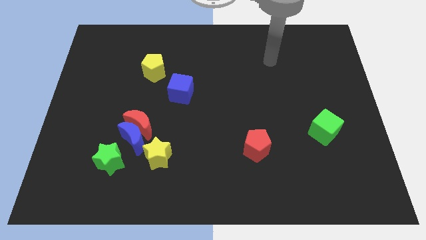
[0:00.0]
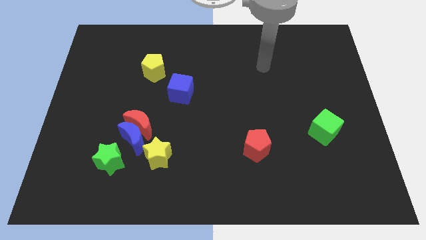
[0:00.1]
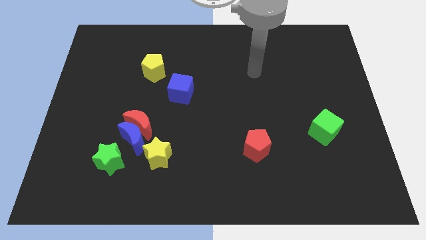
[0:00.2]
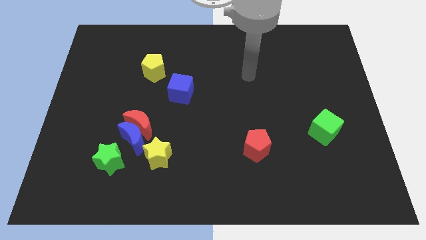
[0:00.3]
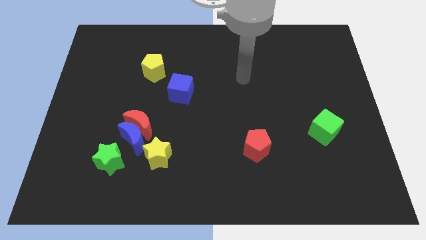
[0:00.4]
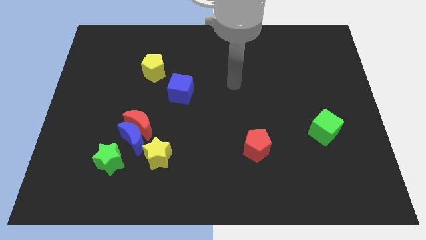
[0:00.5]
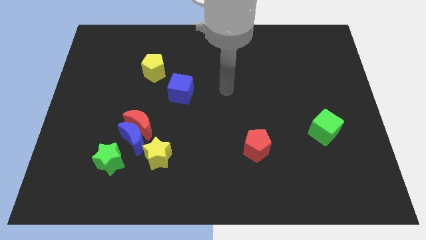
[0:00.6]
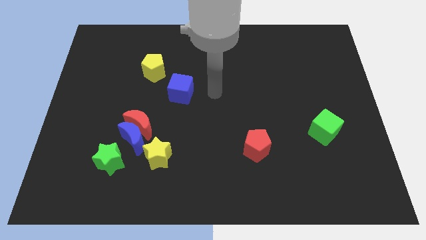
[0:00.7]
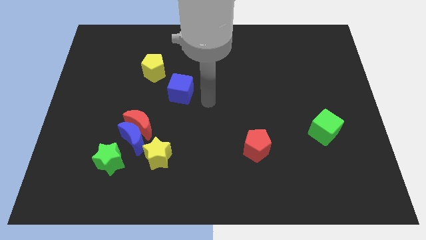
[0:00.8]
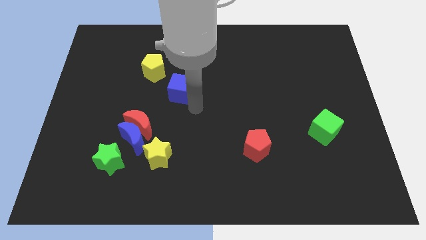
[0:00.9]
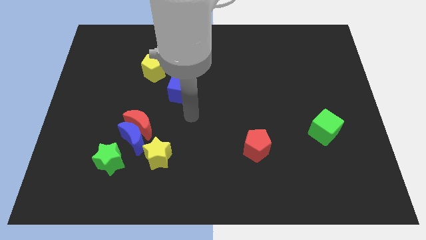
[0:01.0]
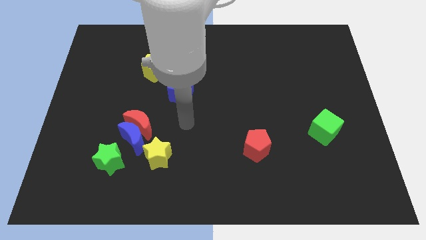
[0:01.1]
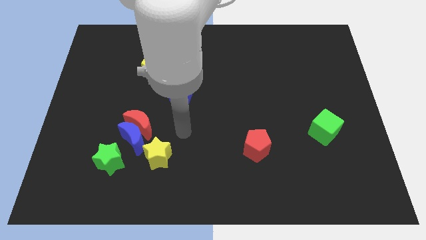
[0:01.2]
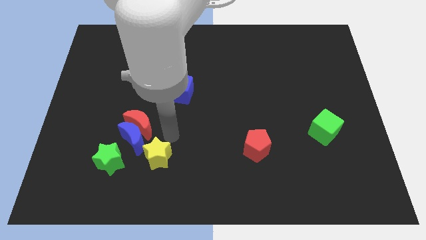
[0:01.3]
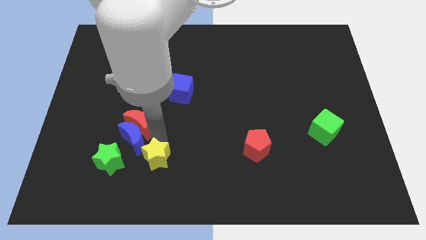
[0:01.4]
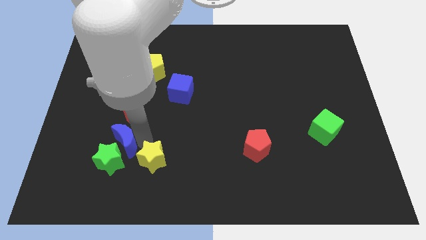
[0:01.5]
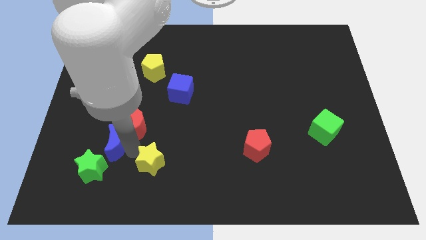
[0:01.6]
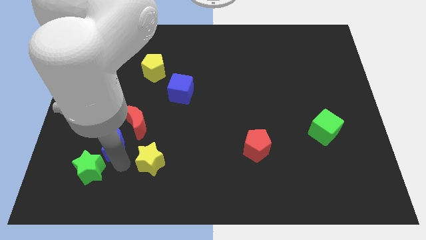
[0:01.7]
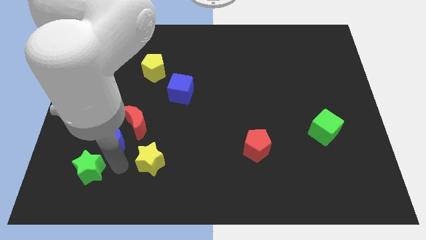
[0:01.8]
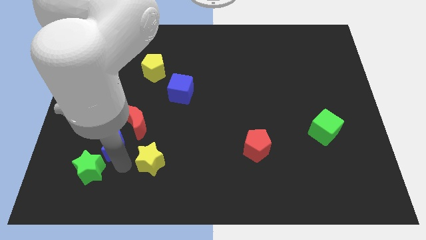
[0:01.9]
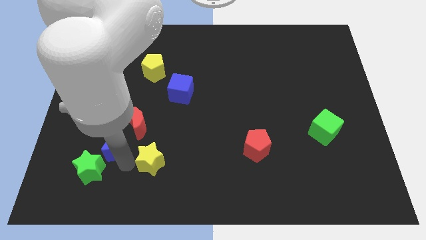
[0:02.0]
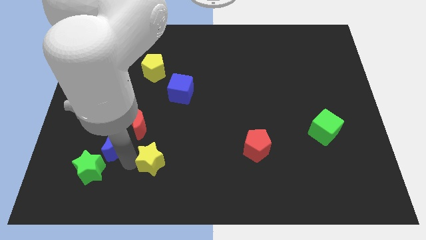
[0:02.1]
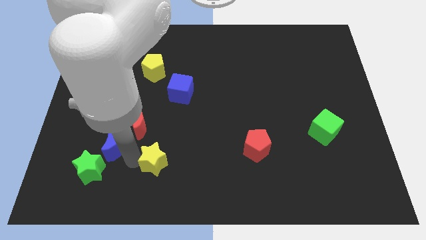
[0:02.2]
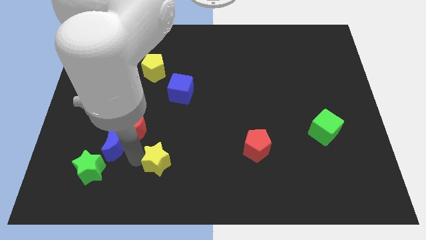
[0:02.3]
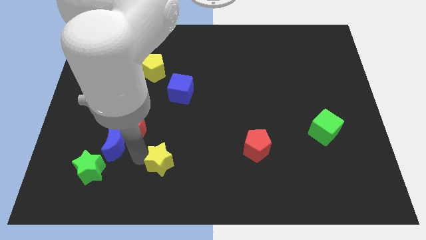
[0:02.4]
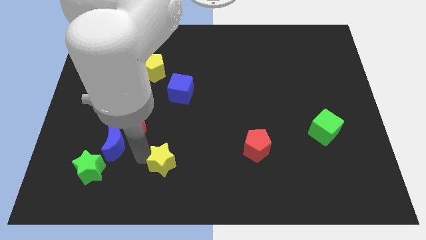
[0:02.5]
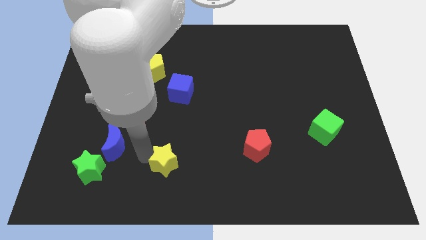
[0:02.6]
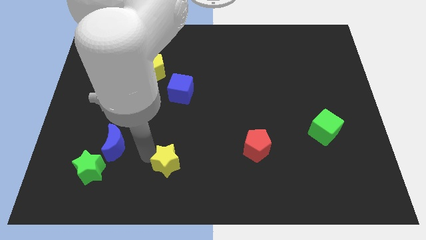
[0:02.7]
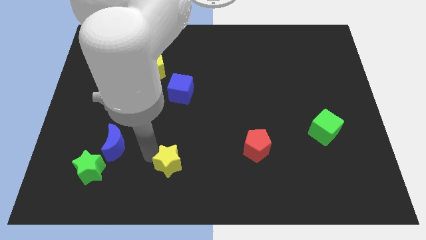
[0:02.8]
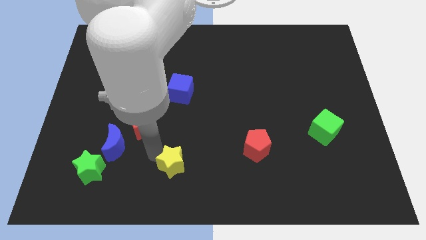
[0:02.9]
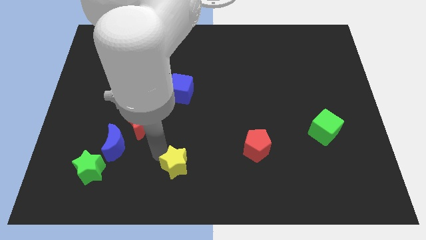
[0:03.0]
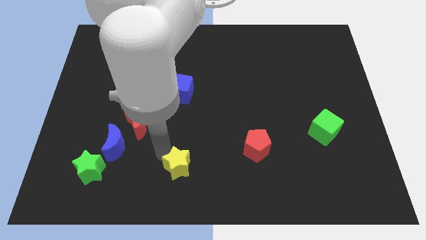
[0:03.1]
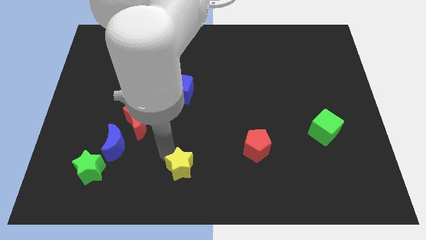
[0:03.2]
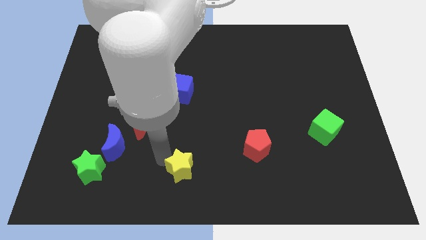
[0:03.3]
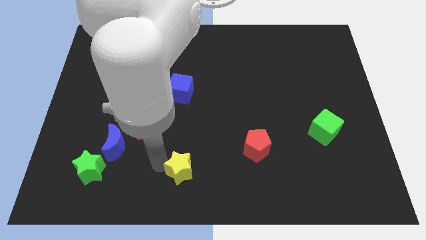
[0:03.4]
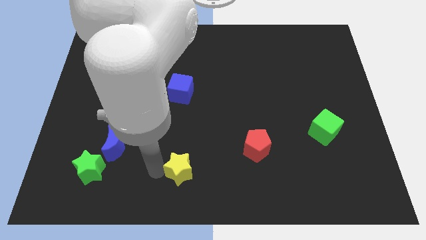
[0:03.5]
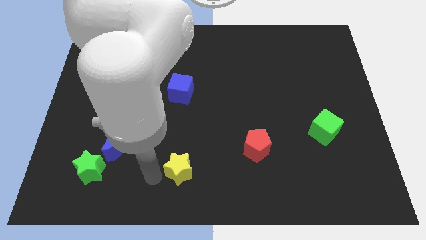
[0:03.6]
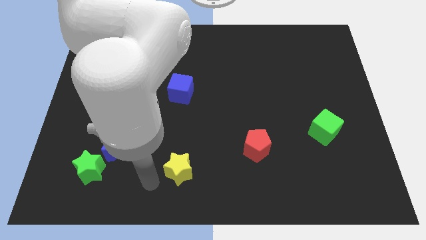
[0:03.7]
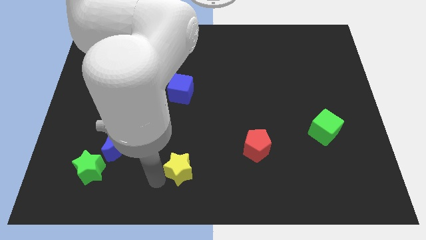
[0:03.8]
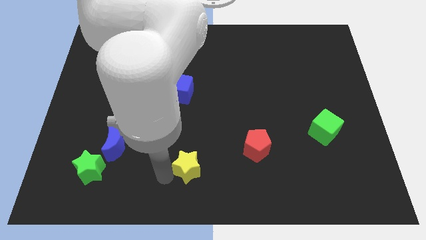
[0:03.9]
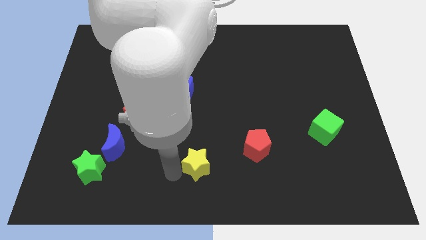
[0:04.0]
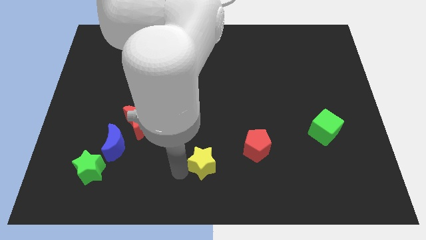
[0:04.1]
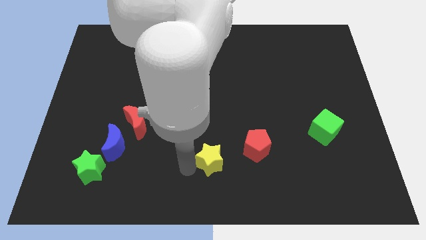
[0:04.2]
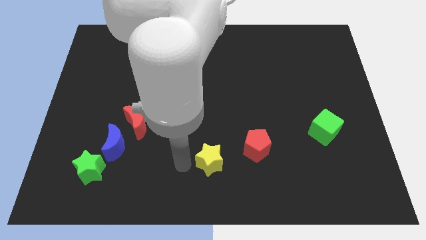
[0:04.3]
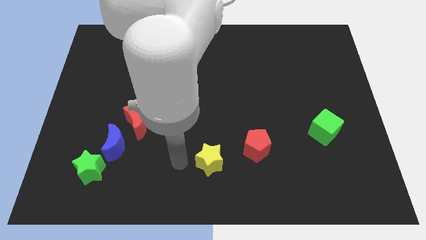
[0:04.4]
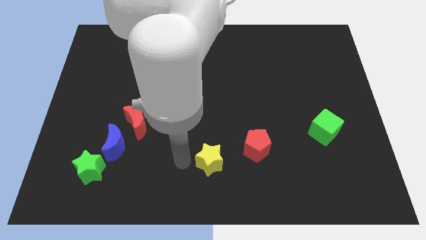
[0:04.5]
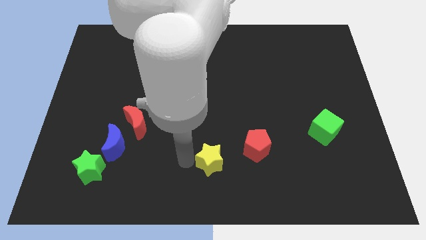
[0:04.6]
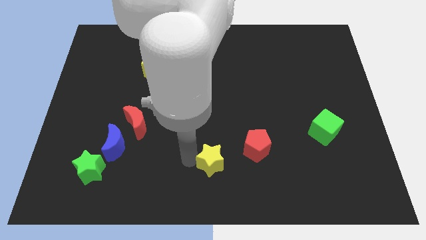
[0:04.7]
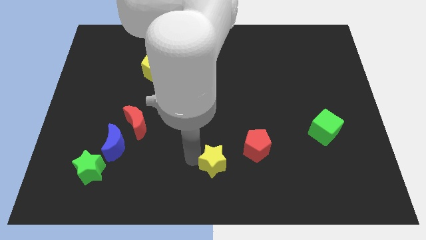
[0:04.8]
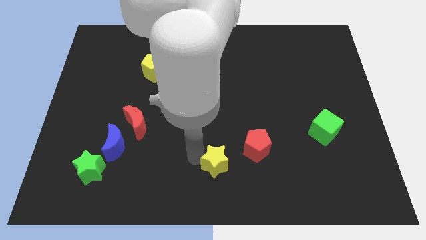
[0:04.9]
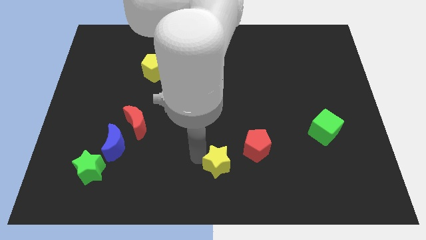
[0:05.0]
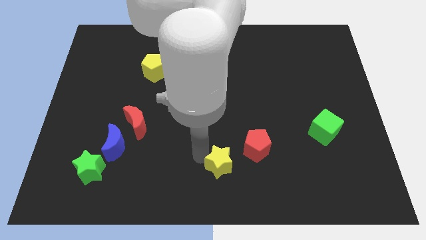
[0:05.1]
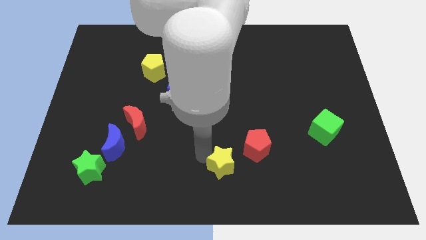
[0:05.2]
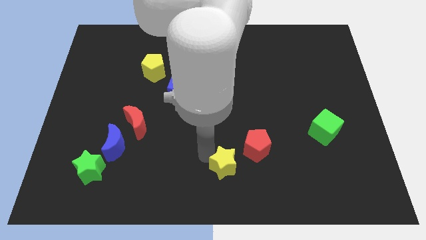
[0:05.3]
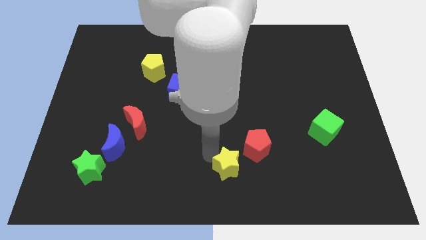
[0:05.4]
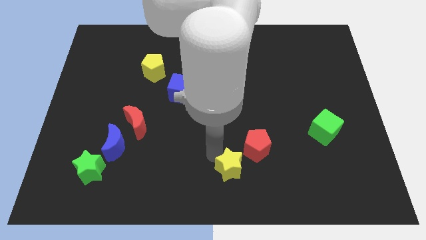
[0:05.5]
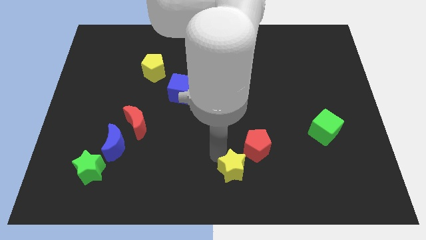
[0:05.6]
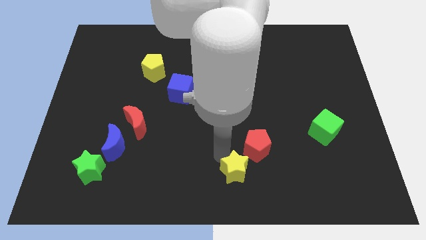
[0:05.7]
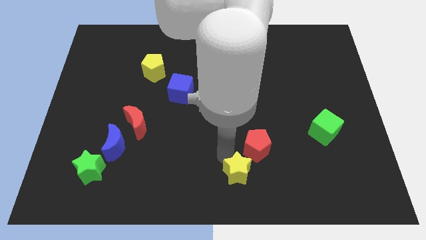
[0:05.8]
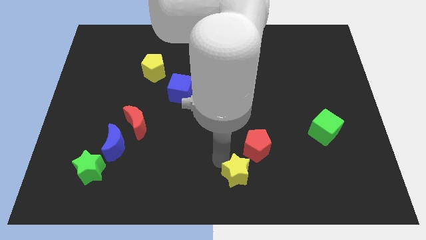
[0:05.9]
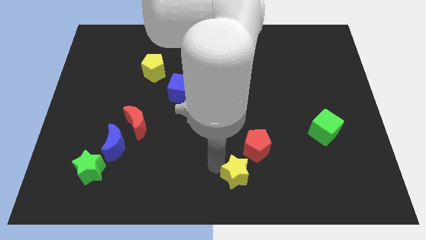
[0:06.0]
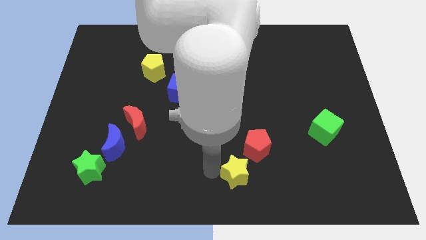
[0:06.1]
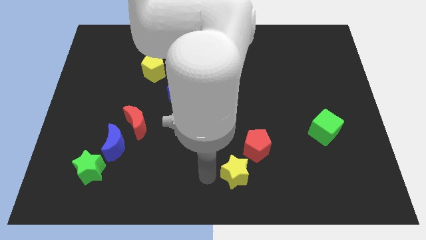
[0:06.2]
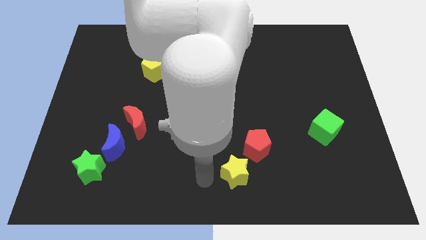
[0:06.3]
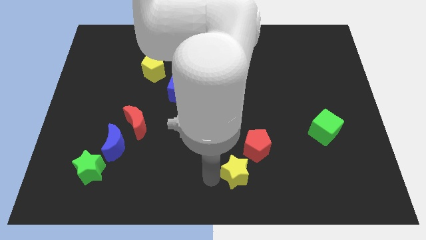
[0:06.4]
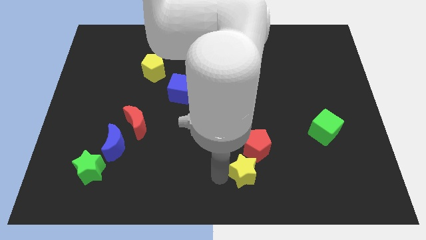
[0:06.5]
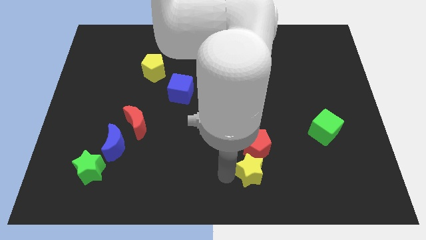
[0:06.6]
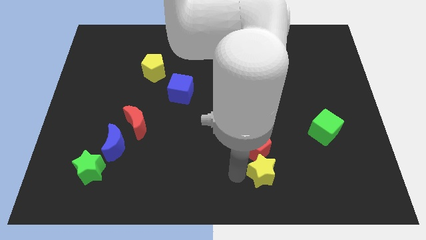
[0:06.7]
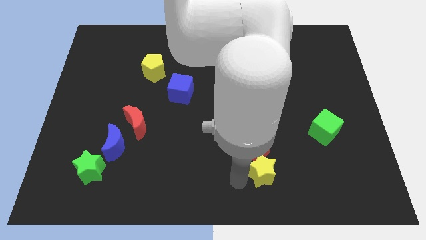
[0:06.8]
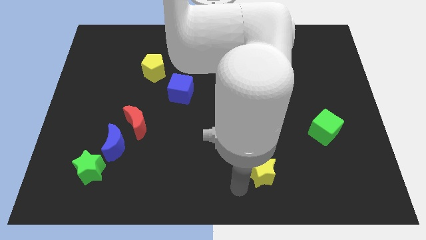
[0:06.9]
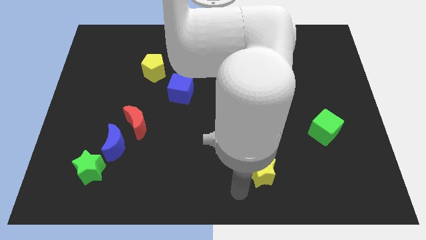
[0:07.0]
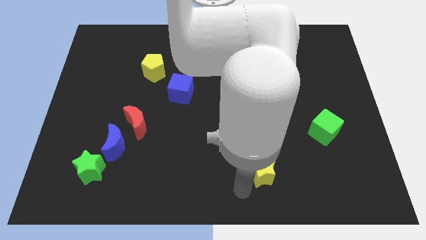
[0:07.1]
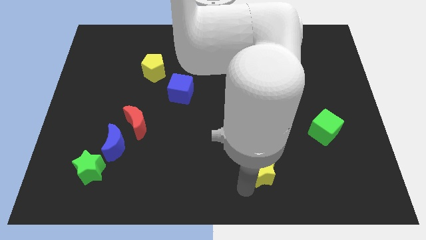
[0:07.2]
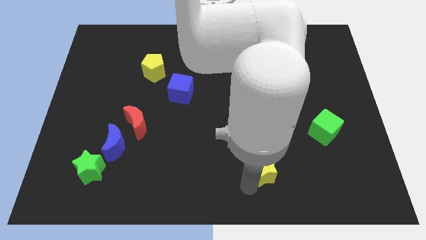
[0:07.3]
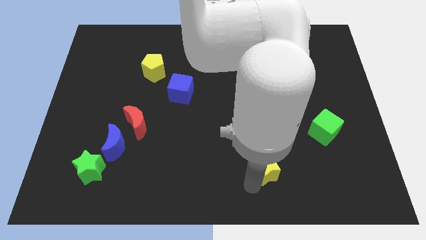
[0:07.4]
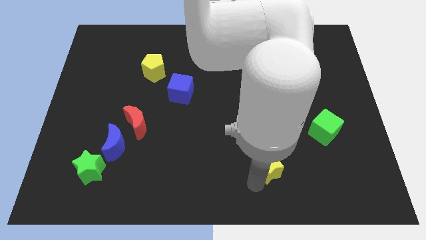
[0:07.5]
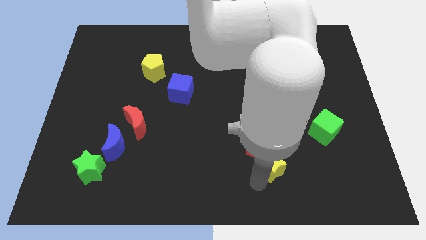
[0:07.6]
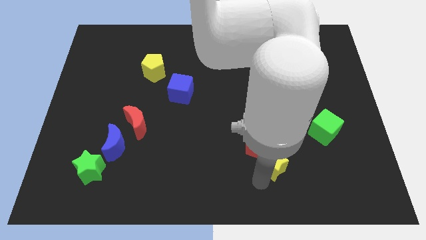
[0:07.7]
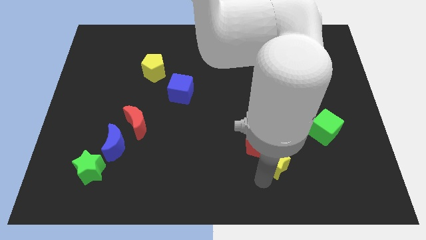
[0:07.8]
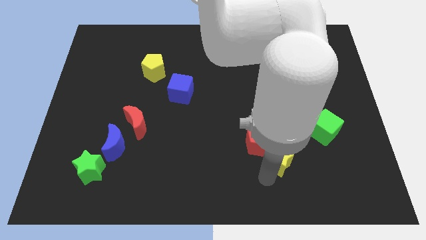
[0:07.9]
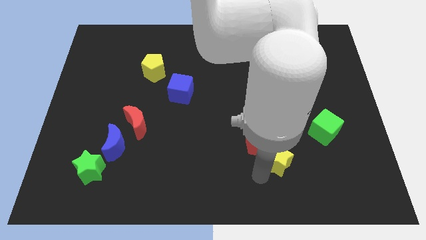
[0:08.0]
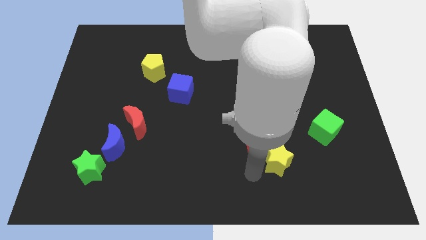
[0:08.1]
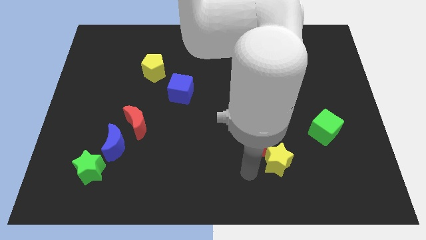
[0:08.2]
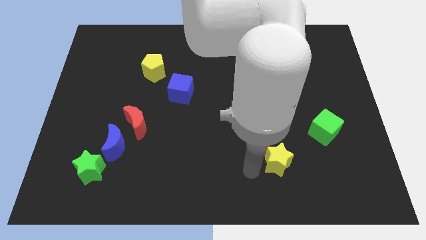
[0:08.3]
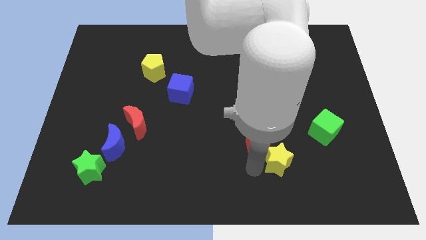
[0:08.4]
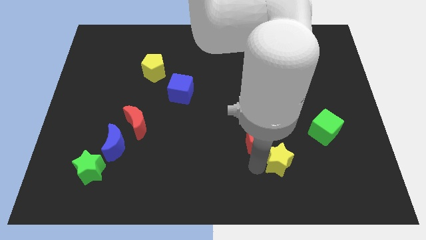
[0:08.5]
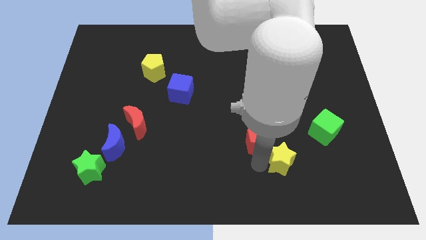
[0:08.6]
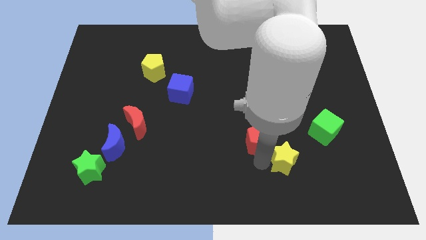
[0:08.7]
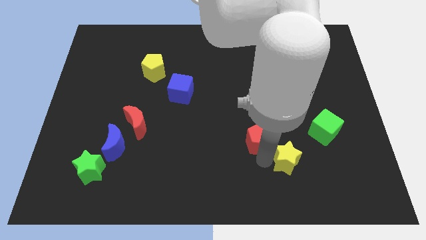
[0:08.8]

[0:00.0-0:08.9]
push the yellow star diagonally down and to the left of the green cube
